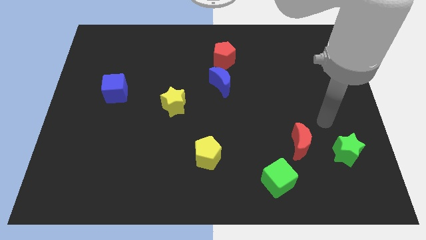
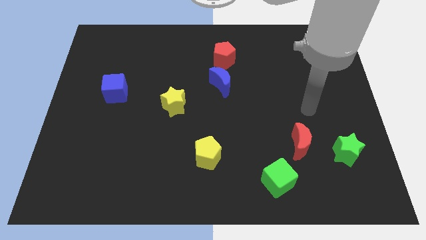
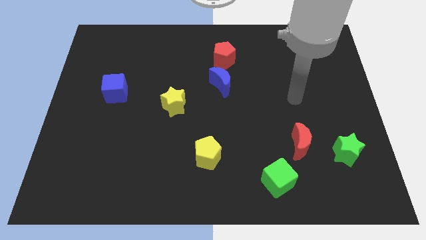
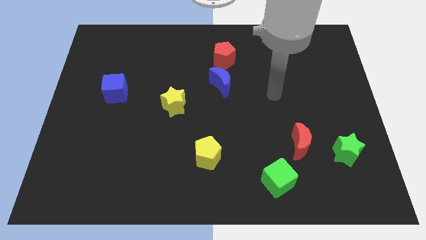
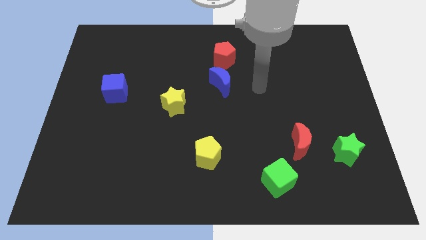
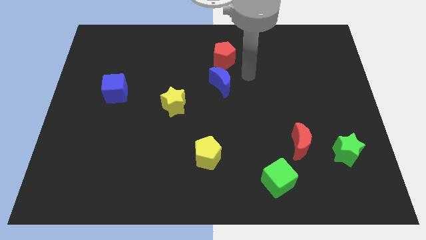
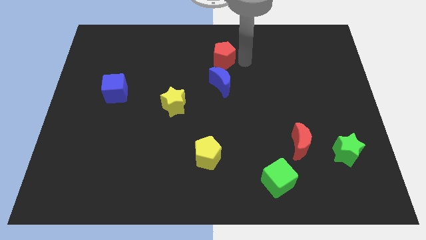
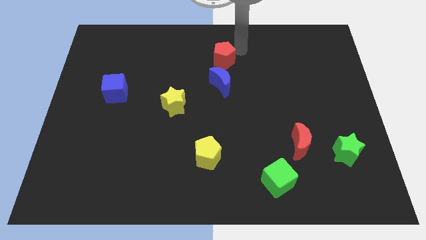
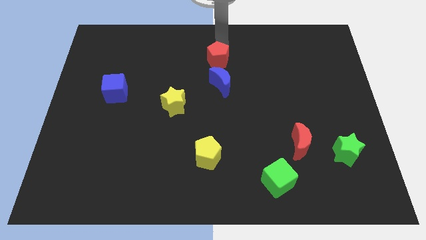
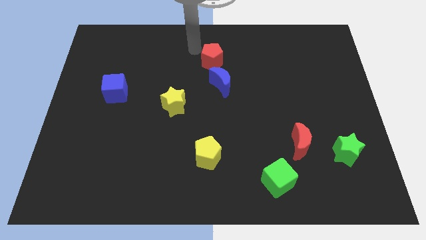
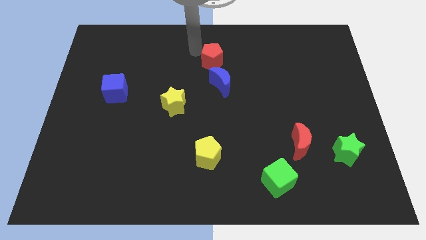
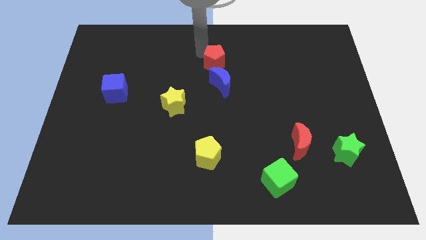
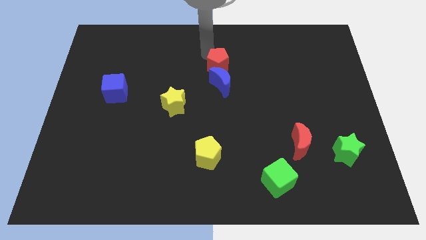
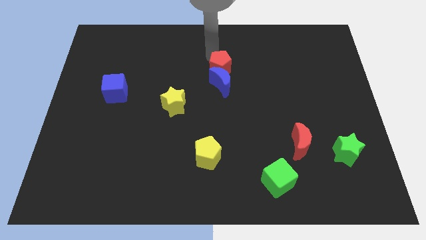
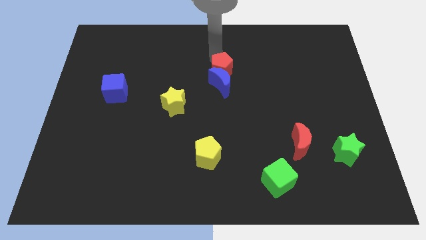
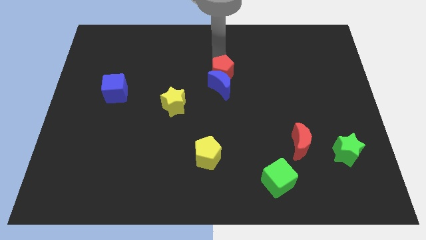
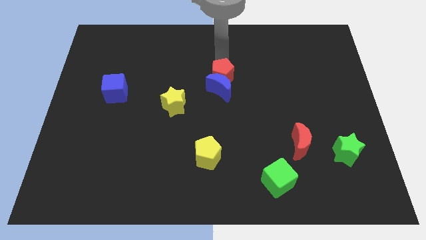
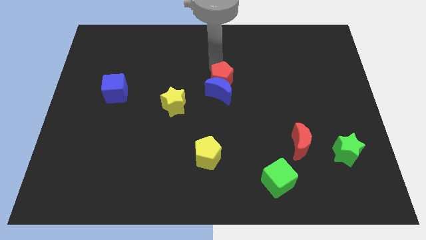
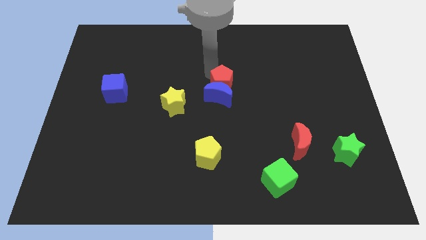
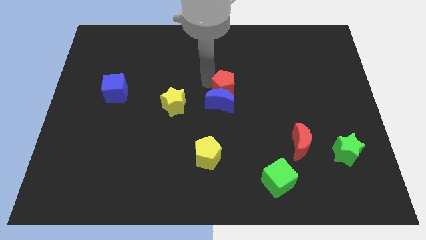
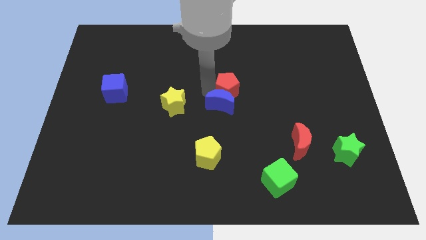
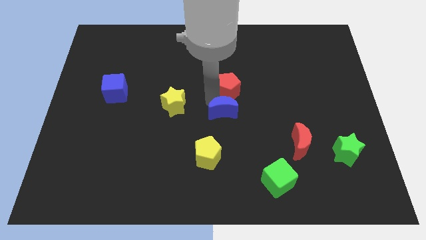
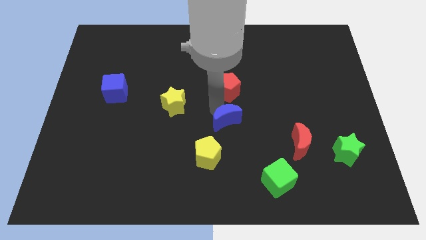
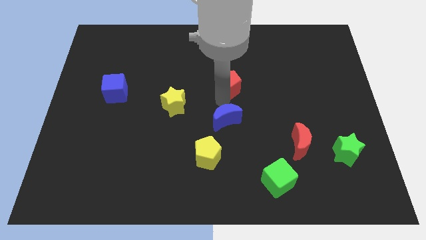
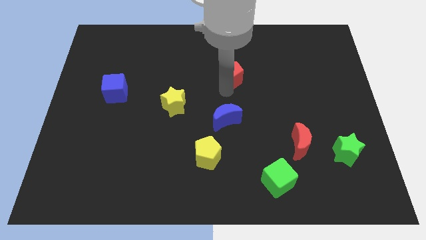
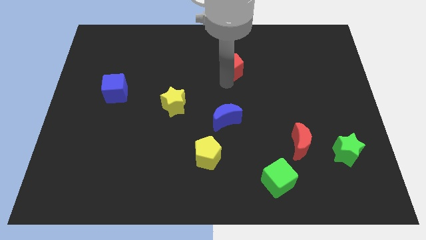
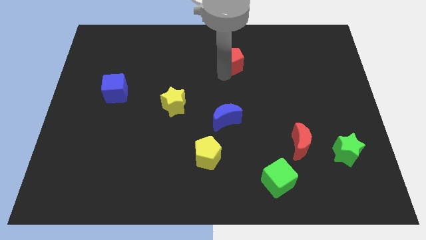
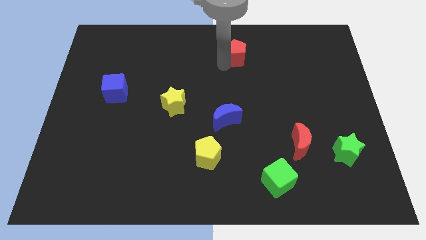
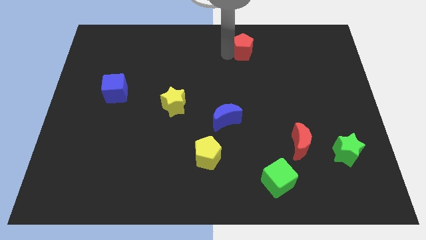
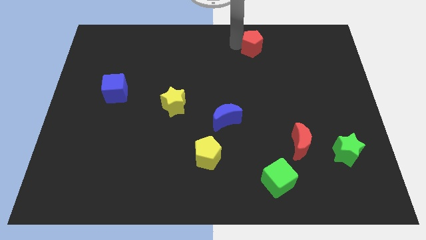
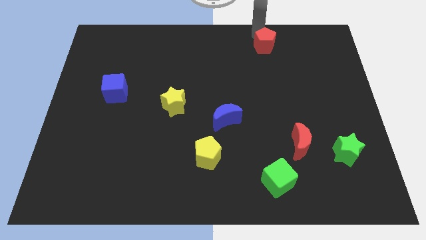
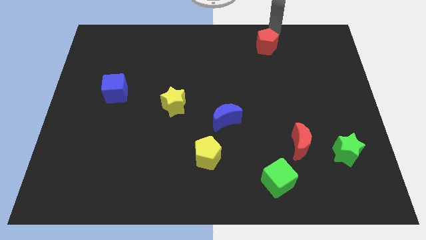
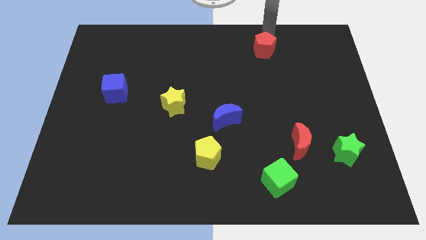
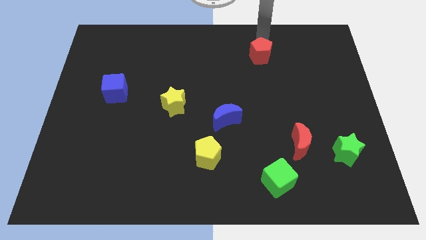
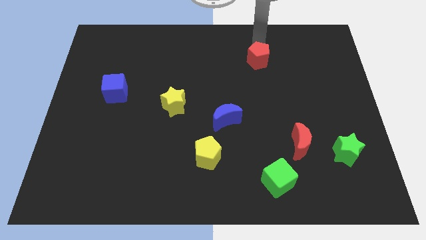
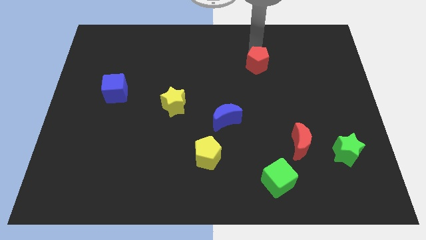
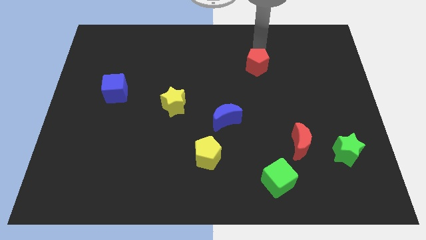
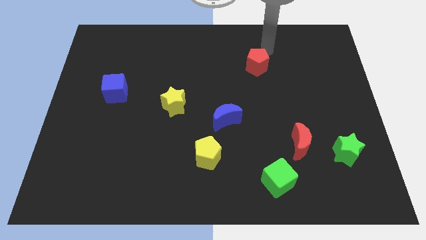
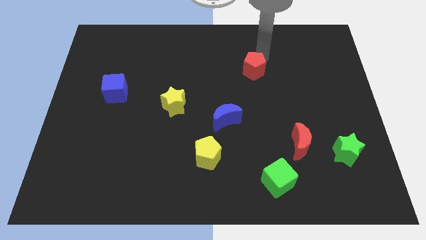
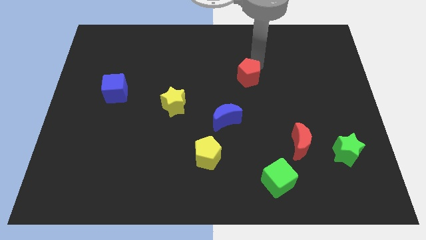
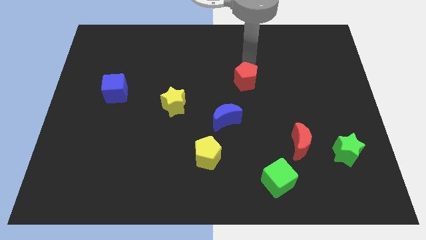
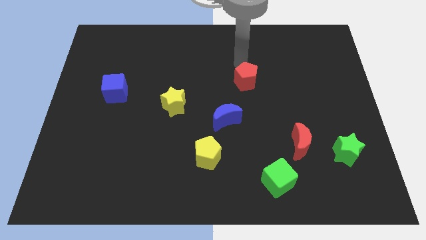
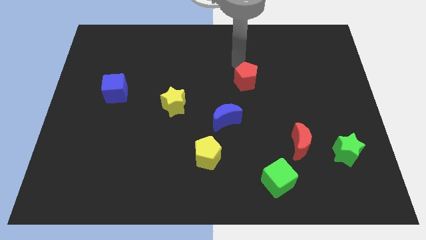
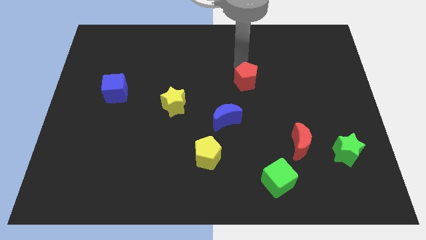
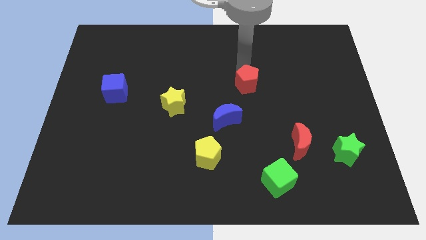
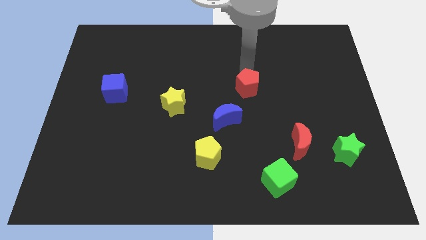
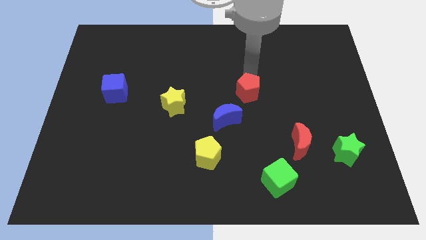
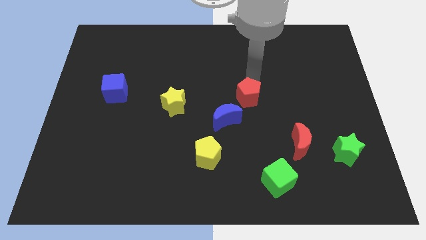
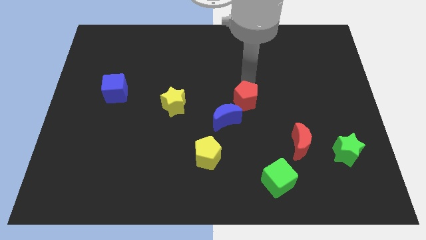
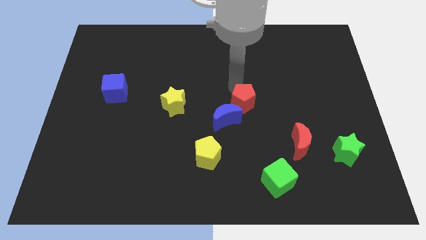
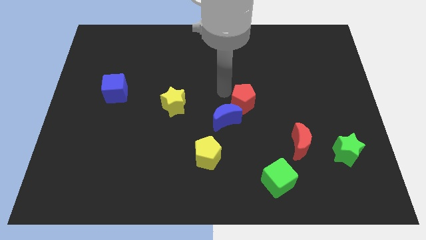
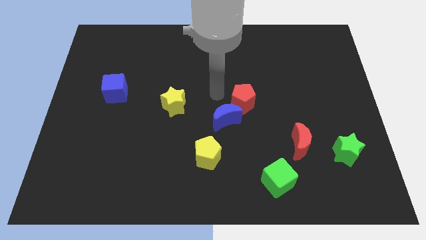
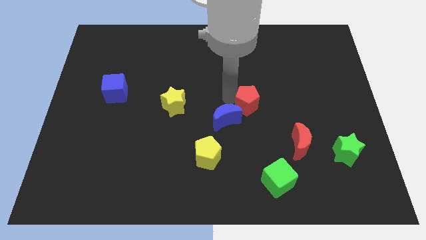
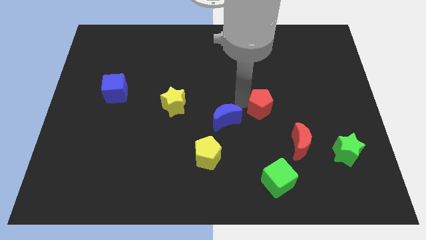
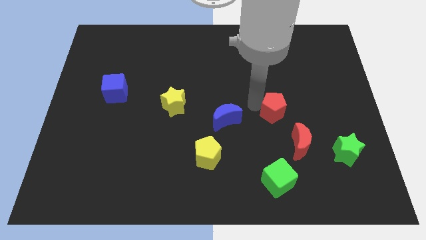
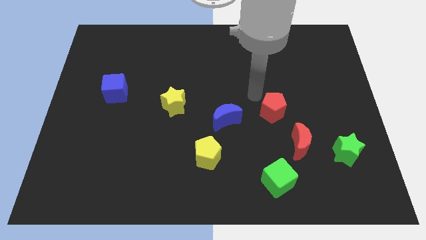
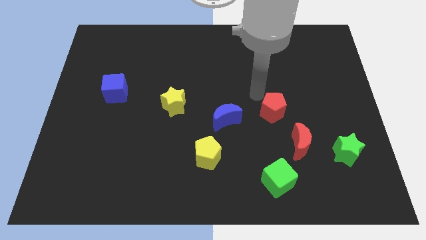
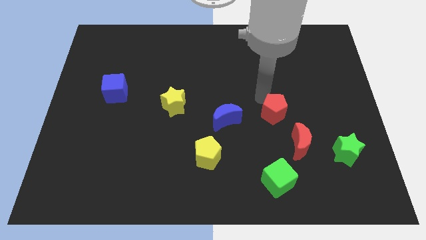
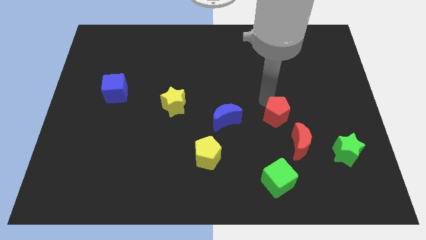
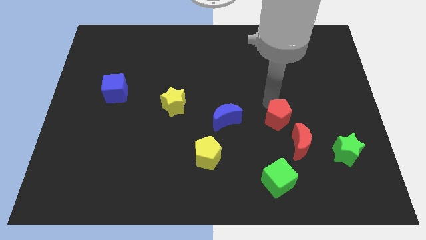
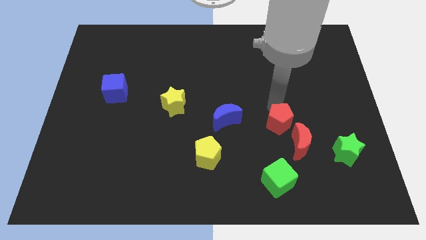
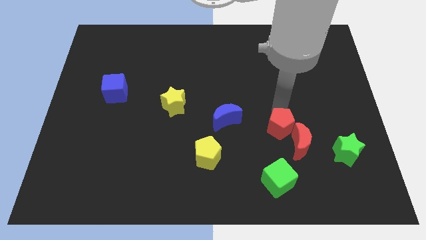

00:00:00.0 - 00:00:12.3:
move the red pentagon towards the red moon

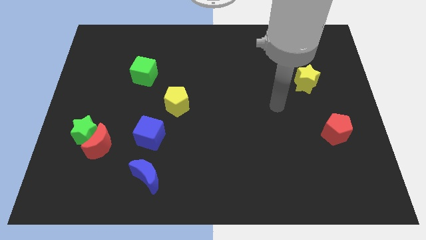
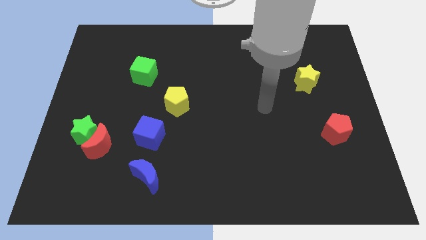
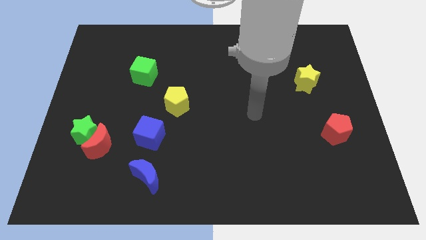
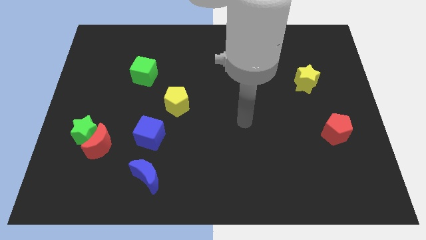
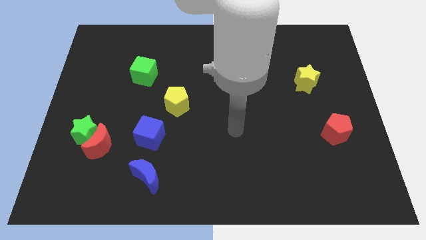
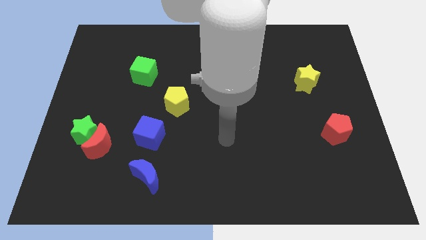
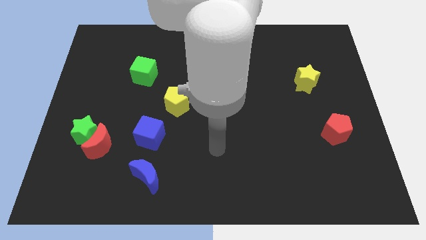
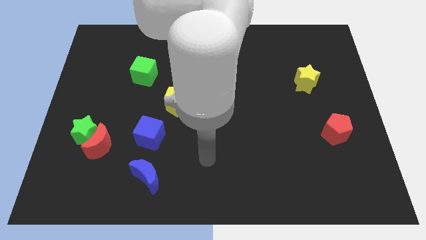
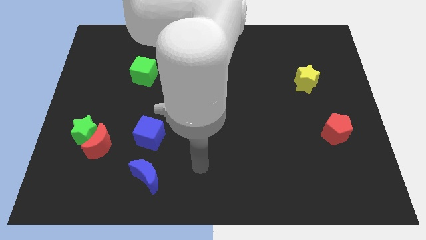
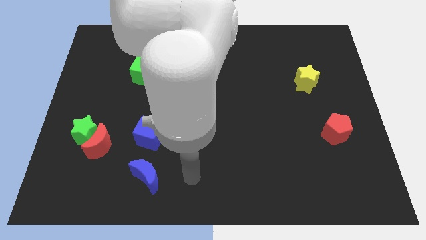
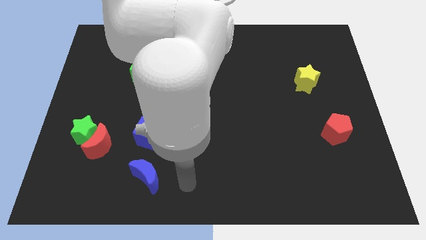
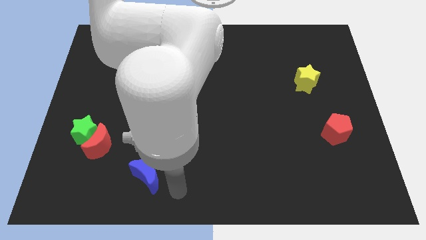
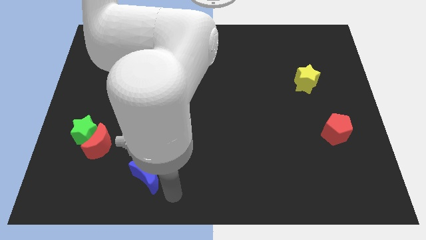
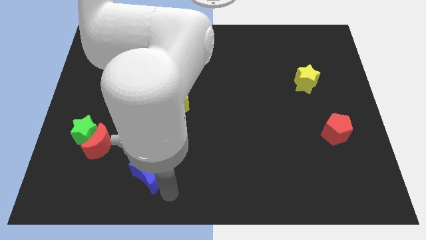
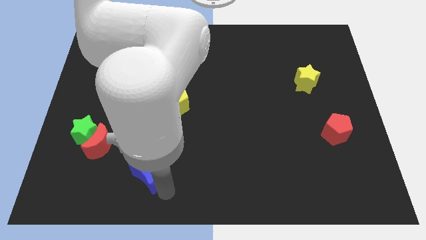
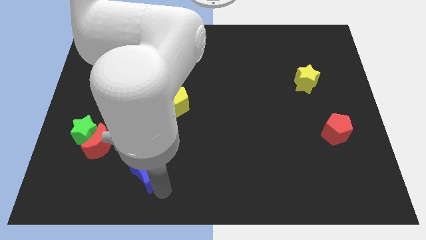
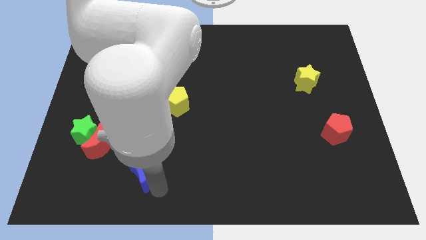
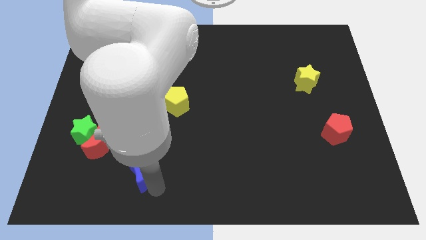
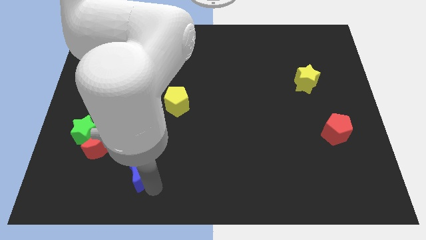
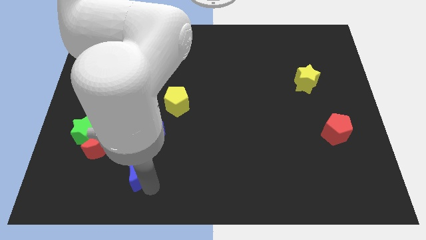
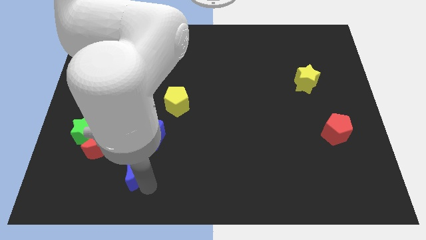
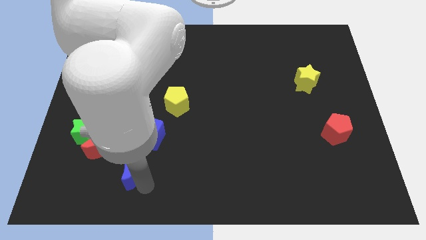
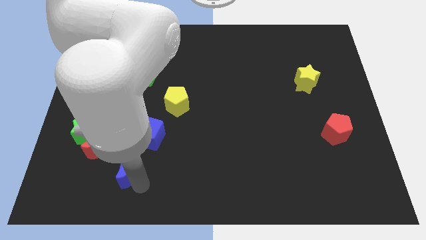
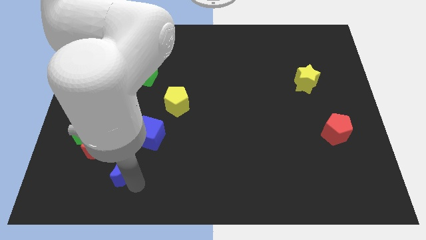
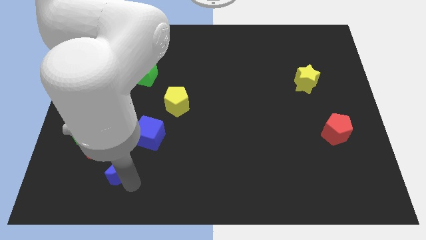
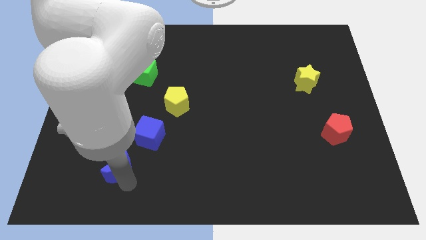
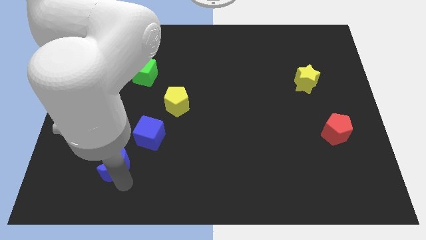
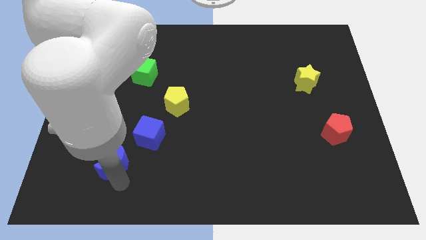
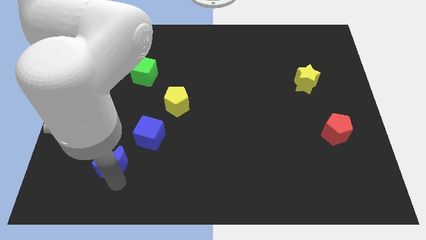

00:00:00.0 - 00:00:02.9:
put the blue moon to the red moon
